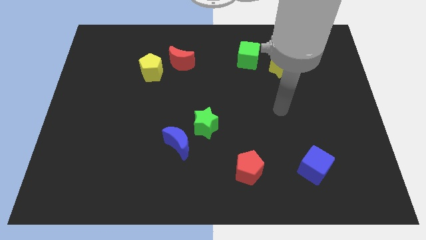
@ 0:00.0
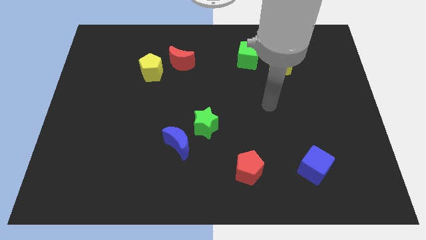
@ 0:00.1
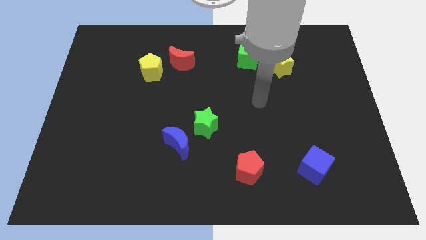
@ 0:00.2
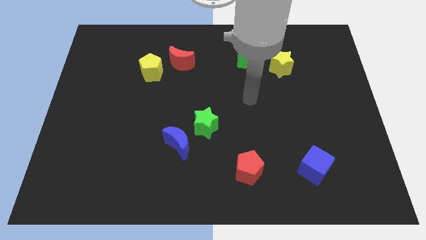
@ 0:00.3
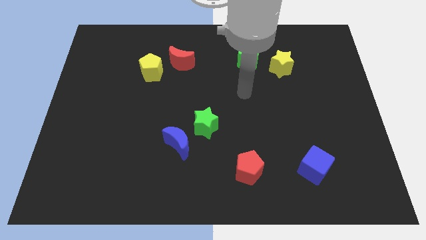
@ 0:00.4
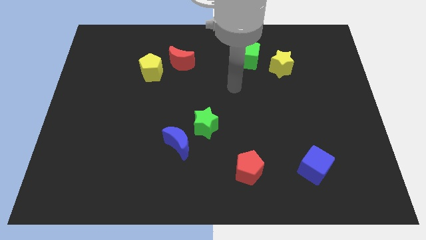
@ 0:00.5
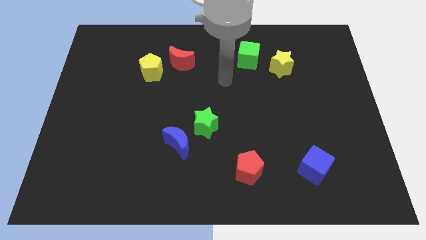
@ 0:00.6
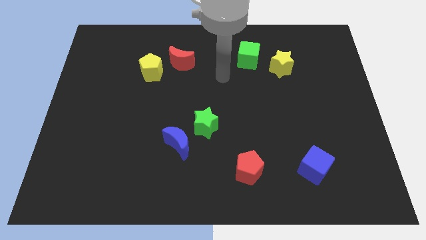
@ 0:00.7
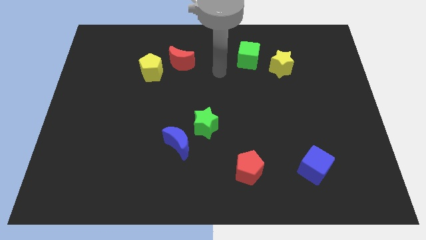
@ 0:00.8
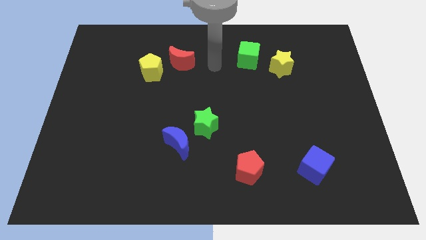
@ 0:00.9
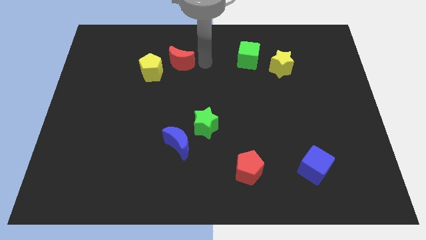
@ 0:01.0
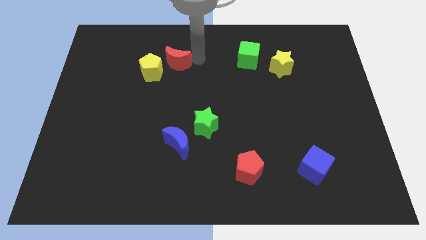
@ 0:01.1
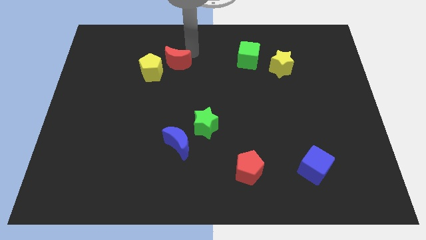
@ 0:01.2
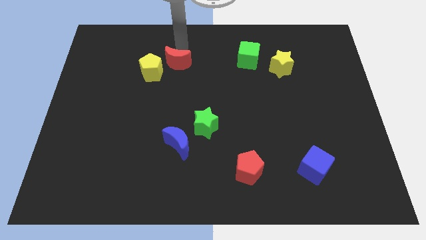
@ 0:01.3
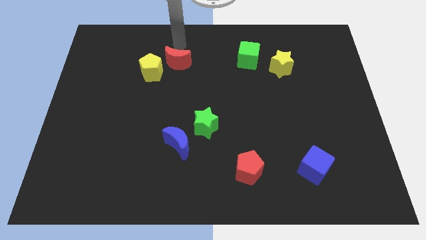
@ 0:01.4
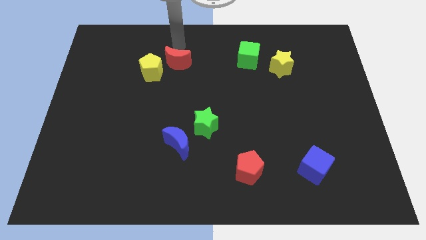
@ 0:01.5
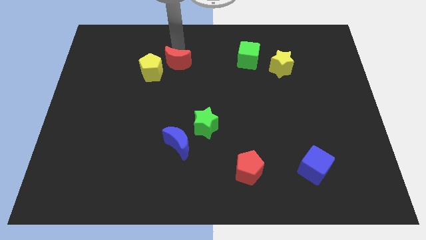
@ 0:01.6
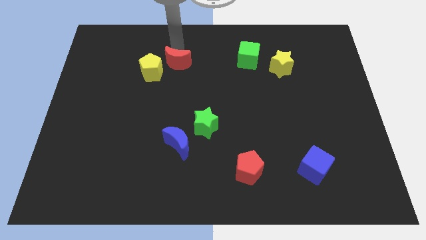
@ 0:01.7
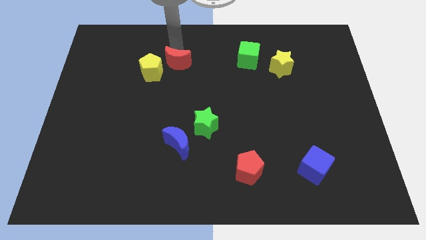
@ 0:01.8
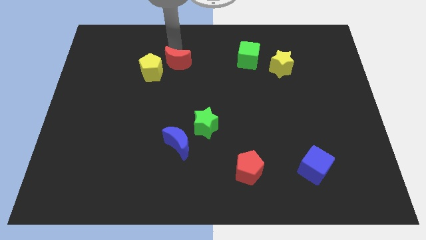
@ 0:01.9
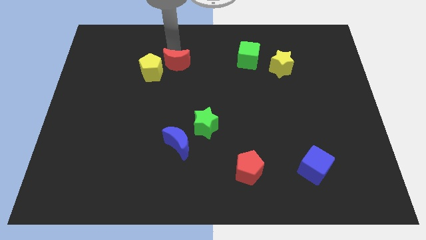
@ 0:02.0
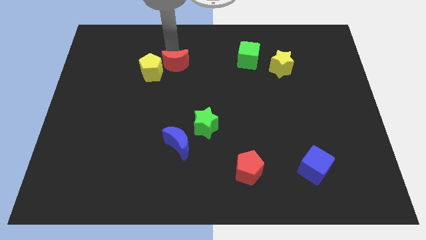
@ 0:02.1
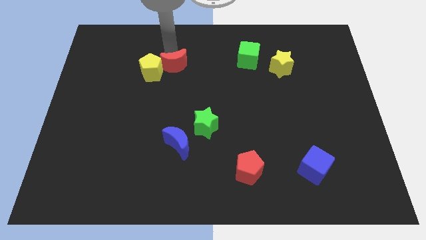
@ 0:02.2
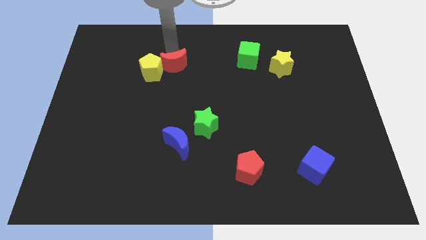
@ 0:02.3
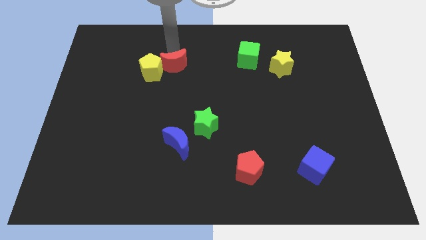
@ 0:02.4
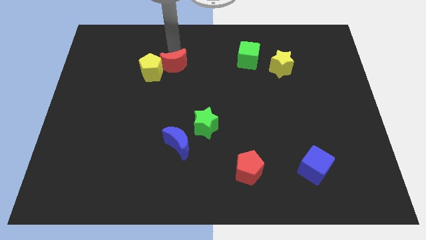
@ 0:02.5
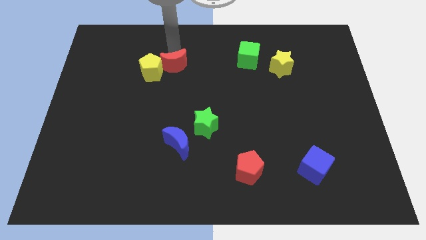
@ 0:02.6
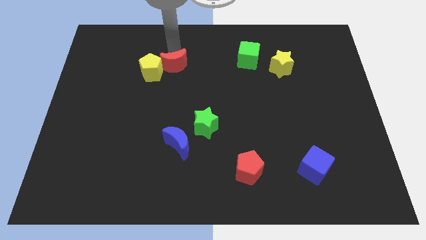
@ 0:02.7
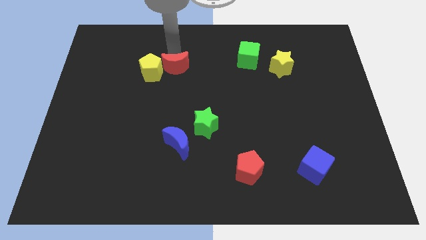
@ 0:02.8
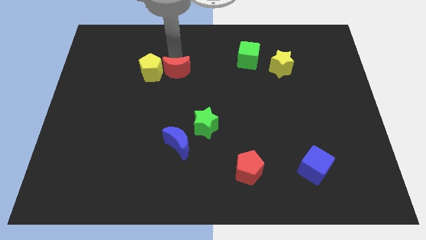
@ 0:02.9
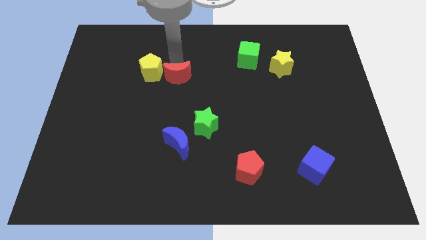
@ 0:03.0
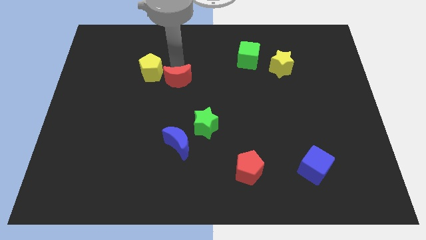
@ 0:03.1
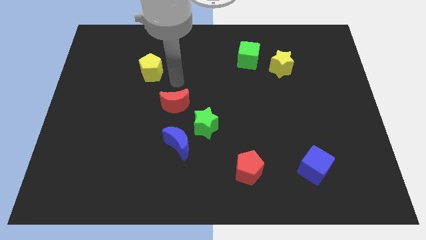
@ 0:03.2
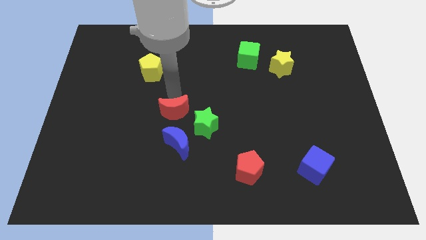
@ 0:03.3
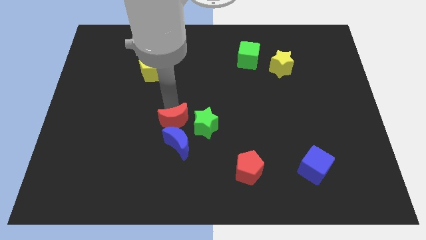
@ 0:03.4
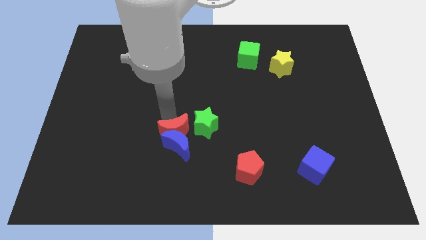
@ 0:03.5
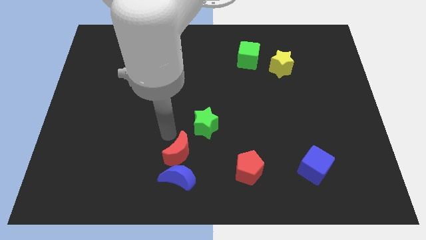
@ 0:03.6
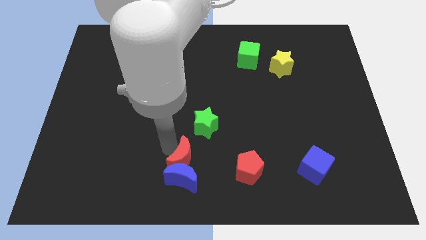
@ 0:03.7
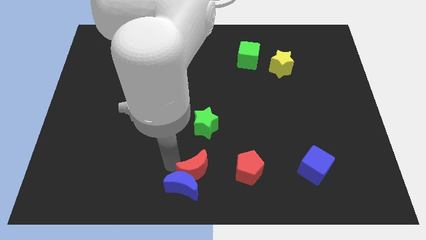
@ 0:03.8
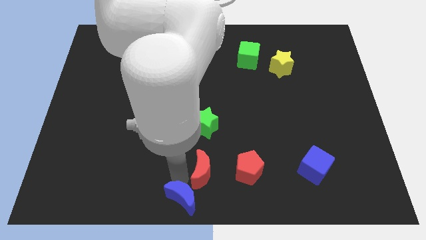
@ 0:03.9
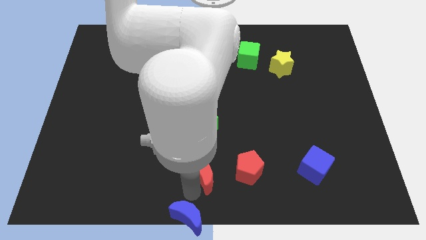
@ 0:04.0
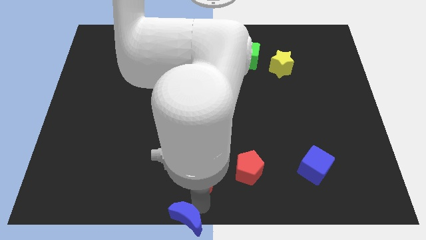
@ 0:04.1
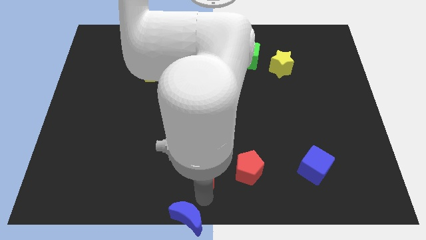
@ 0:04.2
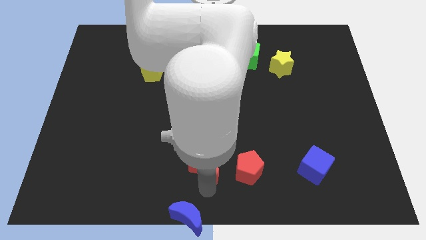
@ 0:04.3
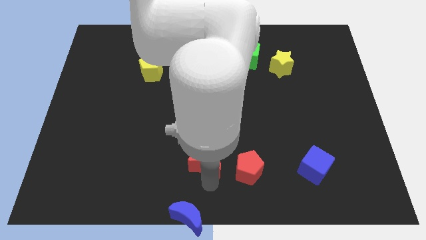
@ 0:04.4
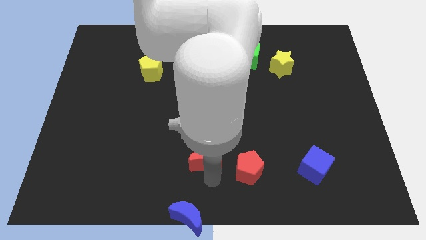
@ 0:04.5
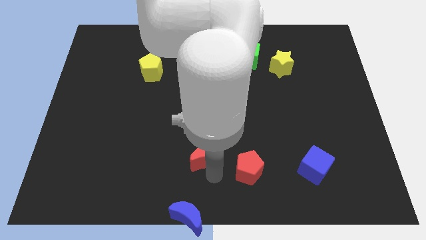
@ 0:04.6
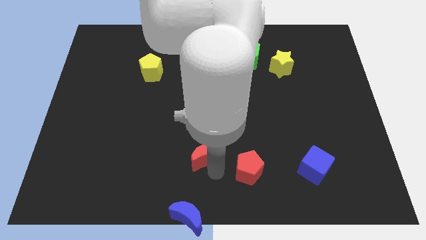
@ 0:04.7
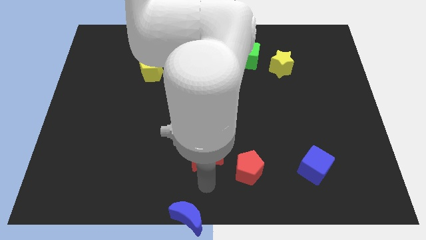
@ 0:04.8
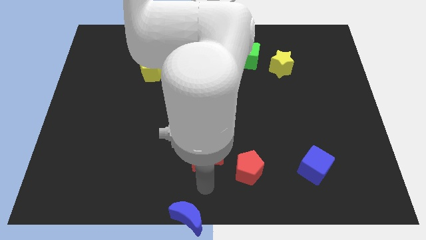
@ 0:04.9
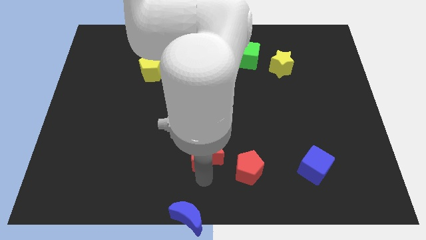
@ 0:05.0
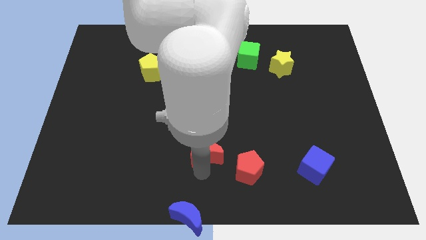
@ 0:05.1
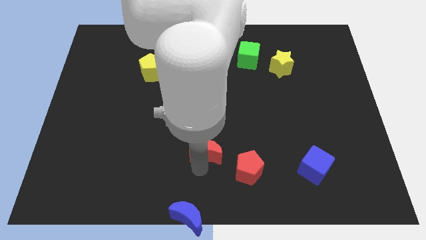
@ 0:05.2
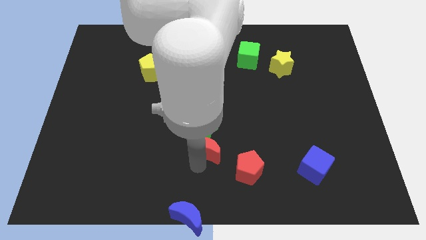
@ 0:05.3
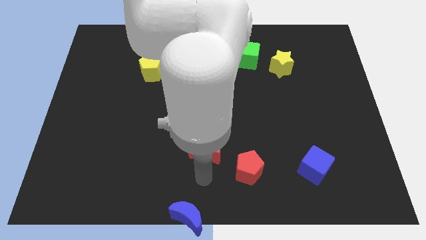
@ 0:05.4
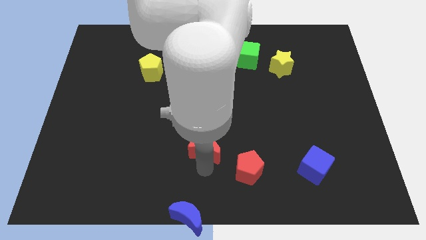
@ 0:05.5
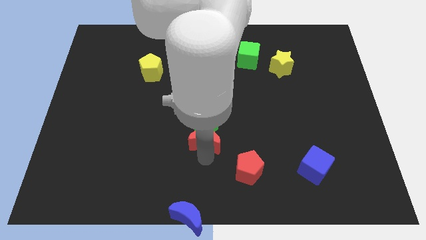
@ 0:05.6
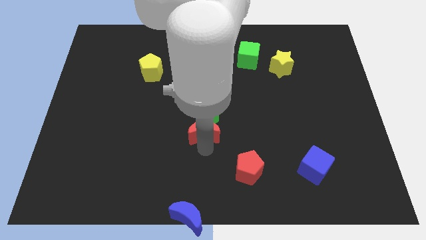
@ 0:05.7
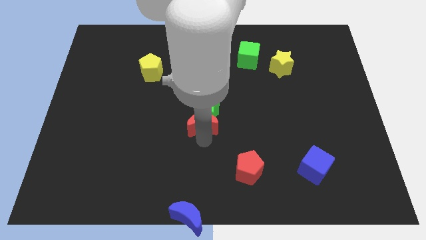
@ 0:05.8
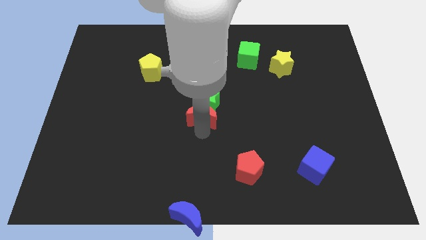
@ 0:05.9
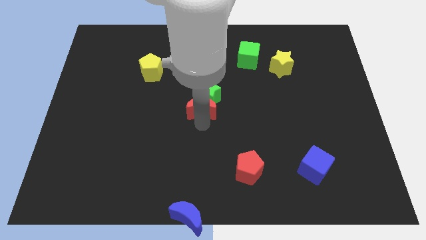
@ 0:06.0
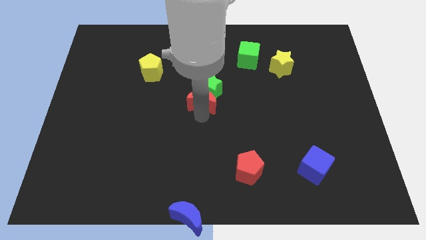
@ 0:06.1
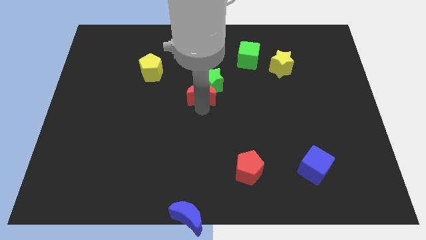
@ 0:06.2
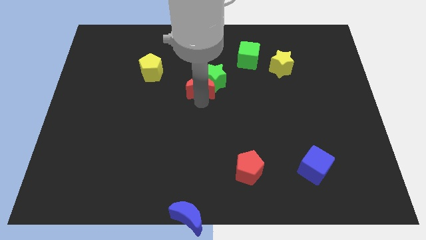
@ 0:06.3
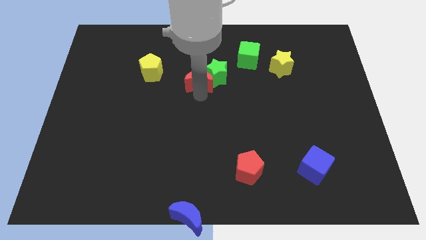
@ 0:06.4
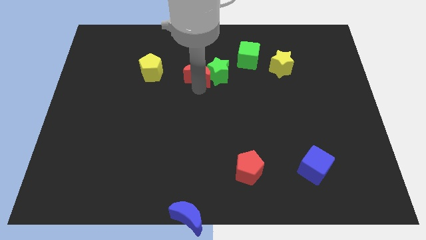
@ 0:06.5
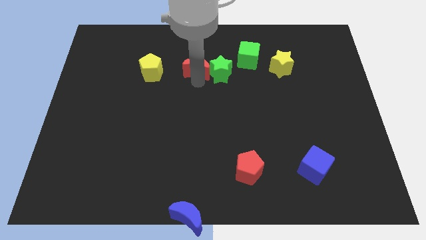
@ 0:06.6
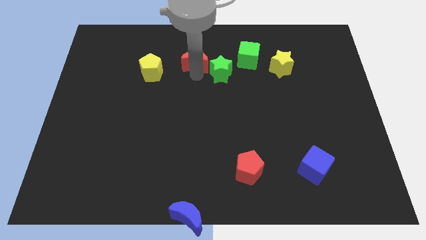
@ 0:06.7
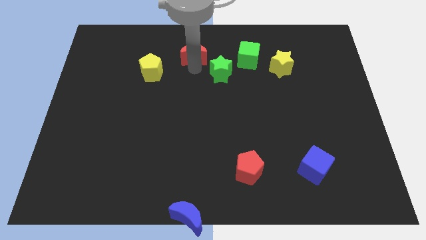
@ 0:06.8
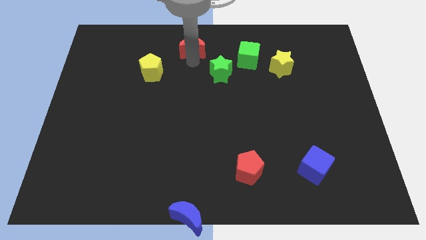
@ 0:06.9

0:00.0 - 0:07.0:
move the red moon to the top
